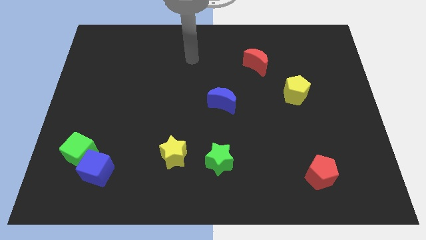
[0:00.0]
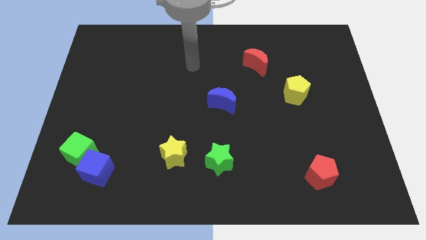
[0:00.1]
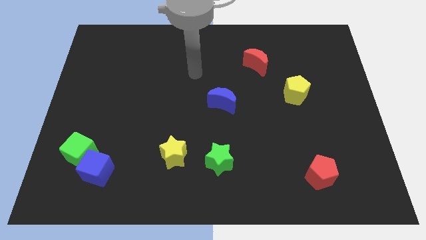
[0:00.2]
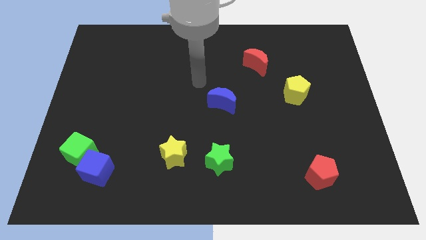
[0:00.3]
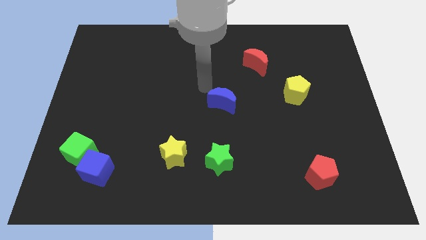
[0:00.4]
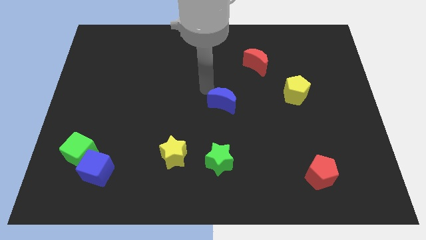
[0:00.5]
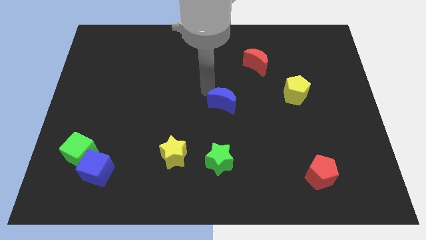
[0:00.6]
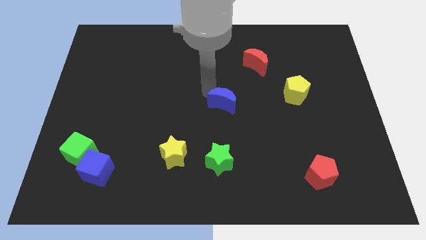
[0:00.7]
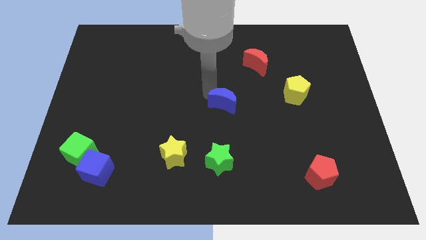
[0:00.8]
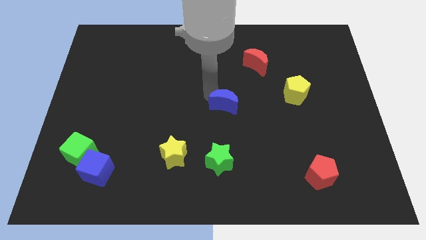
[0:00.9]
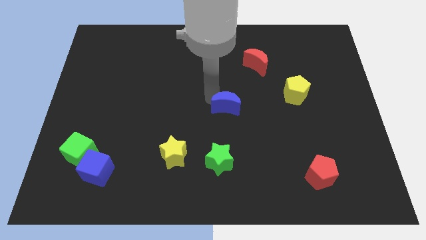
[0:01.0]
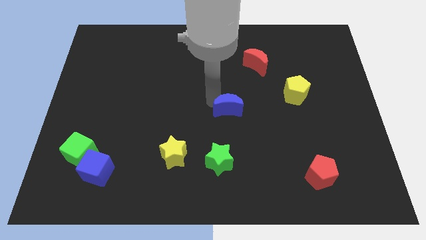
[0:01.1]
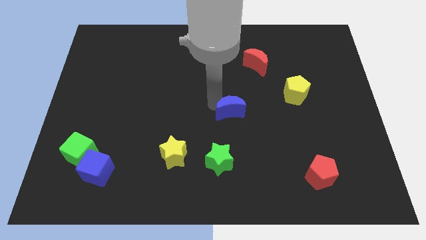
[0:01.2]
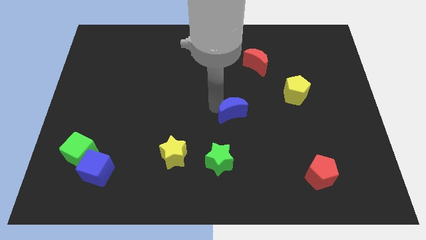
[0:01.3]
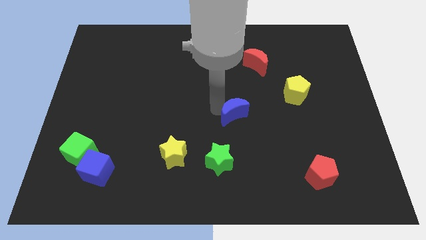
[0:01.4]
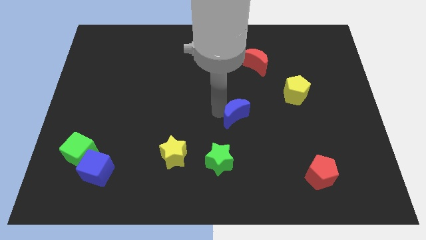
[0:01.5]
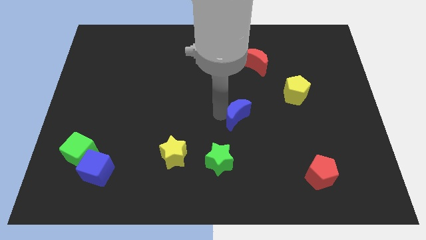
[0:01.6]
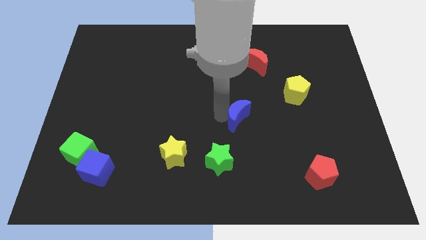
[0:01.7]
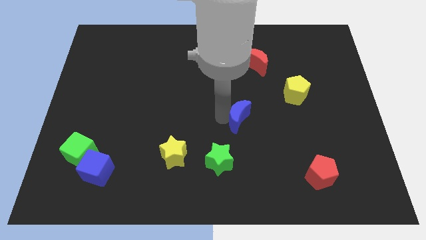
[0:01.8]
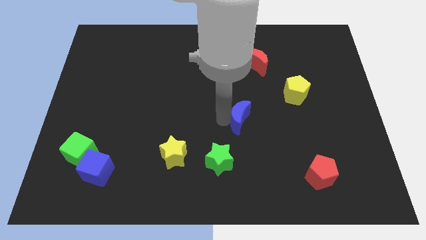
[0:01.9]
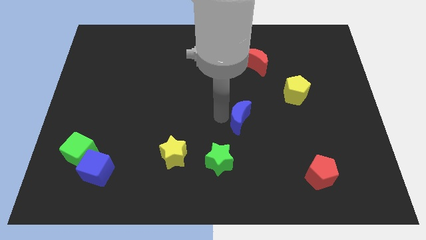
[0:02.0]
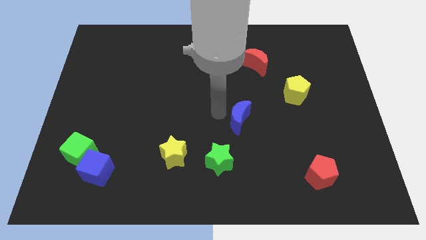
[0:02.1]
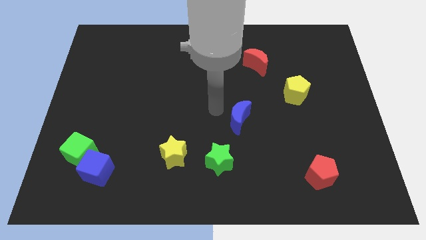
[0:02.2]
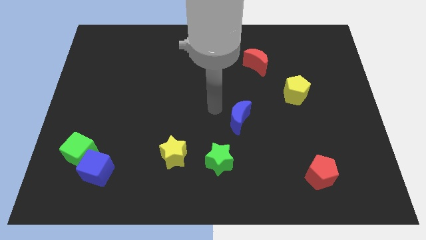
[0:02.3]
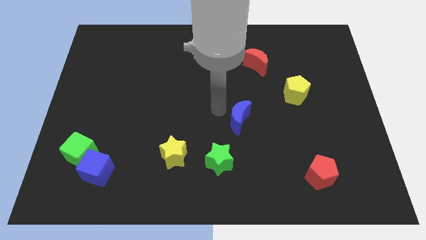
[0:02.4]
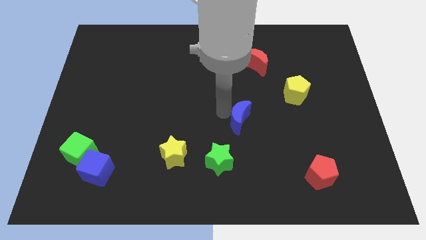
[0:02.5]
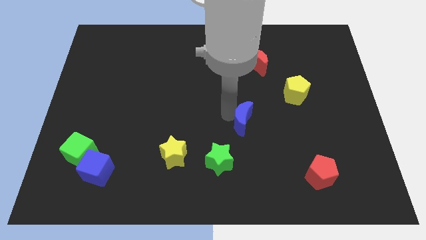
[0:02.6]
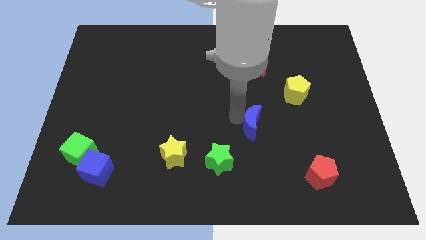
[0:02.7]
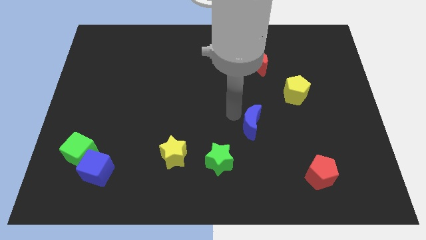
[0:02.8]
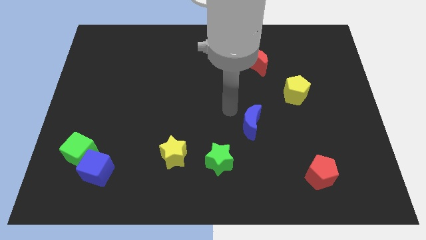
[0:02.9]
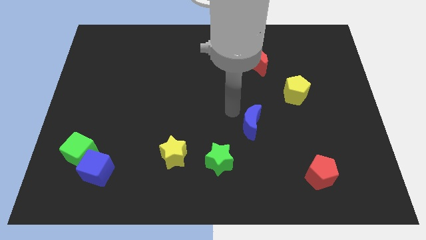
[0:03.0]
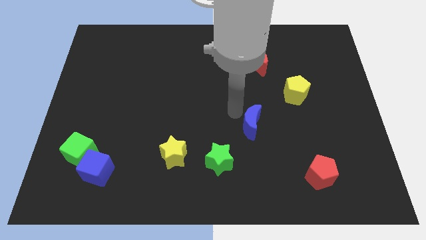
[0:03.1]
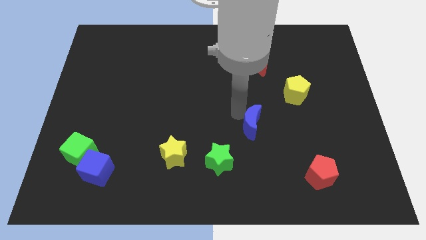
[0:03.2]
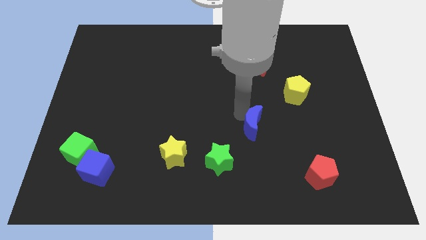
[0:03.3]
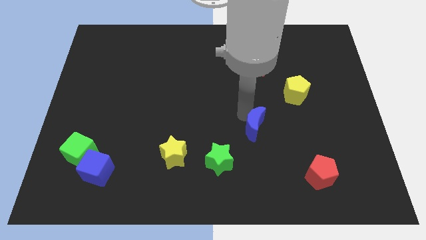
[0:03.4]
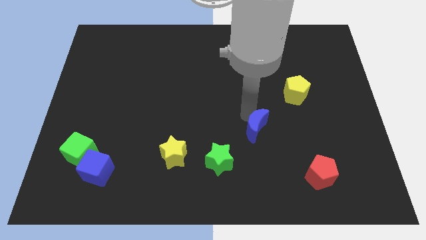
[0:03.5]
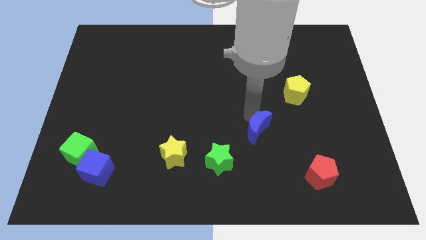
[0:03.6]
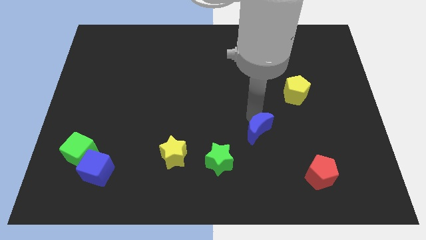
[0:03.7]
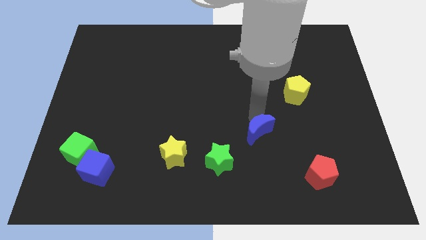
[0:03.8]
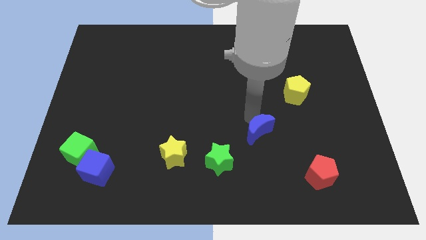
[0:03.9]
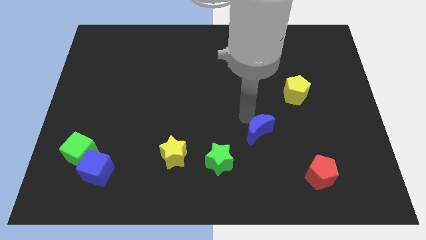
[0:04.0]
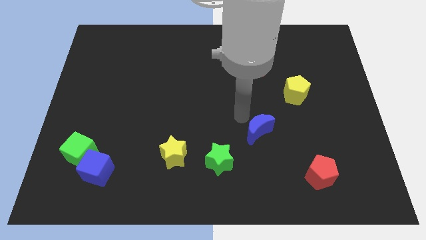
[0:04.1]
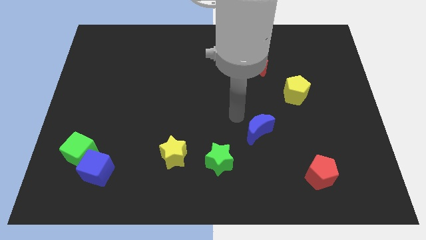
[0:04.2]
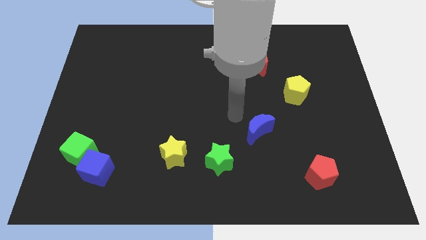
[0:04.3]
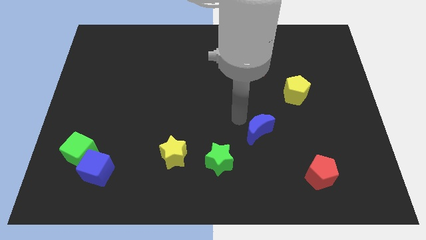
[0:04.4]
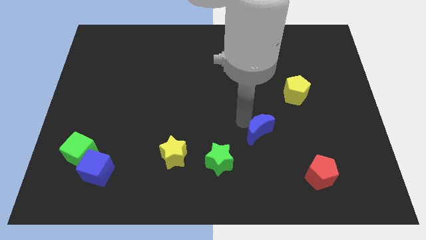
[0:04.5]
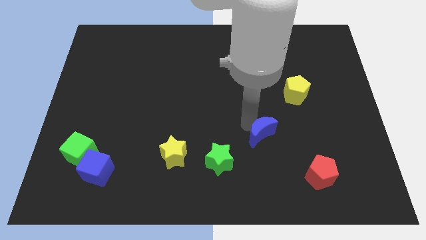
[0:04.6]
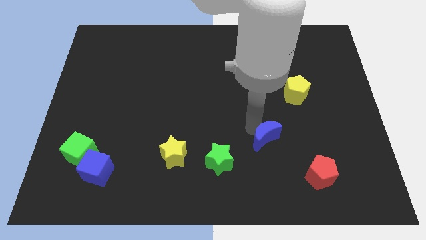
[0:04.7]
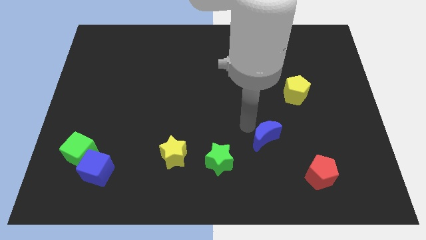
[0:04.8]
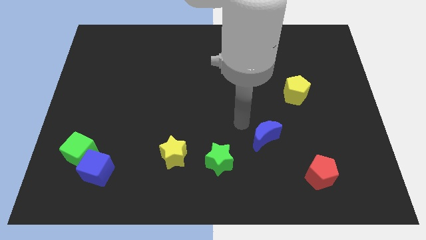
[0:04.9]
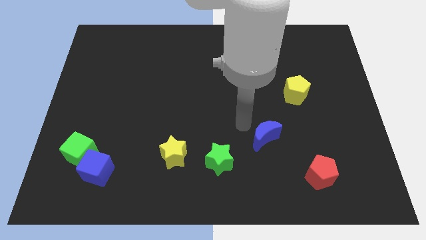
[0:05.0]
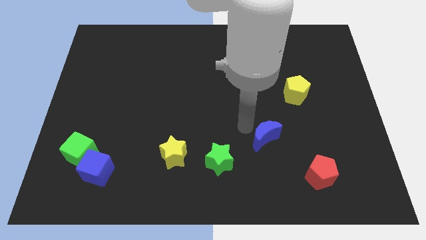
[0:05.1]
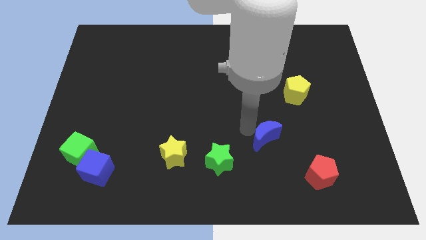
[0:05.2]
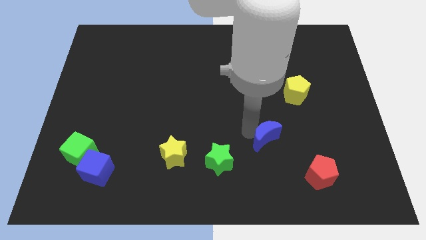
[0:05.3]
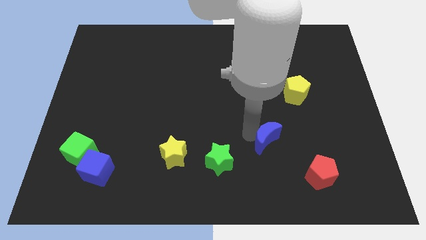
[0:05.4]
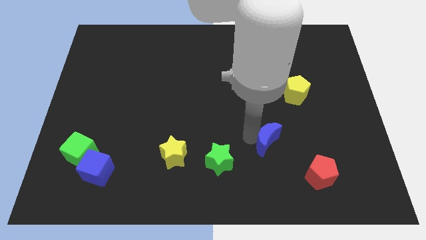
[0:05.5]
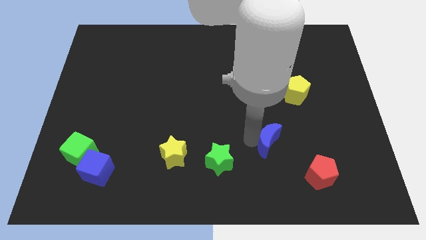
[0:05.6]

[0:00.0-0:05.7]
put the blue moon to the top left of the red pentagon

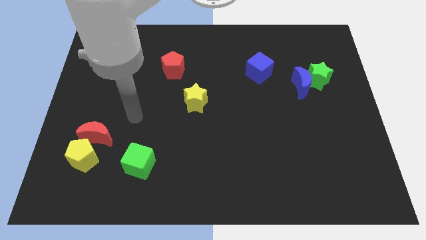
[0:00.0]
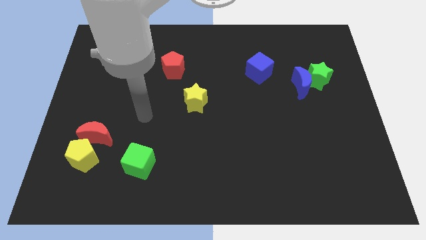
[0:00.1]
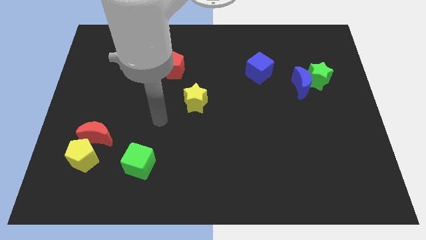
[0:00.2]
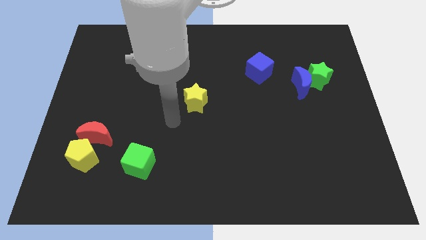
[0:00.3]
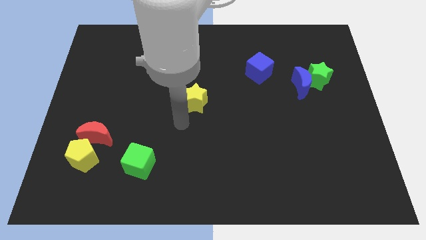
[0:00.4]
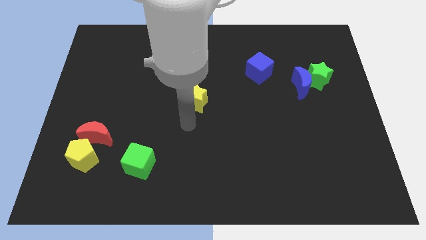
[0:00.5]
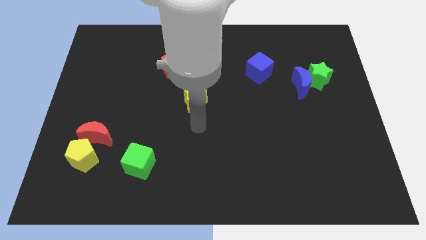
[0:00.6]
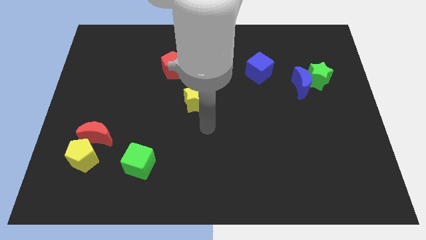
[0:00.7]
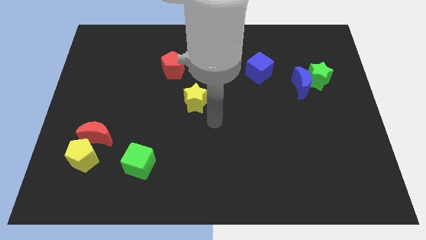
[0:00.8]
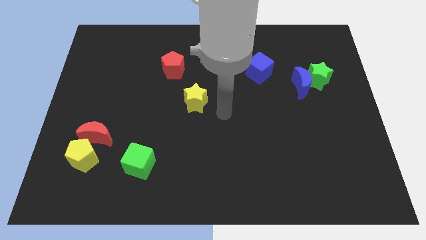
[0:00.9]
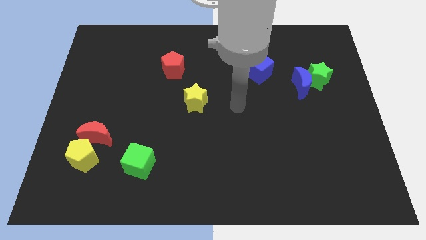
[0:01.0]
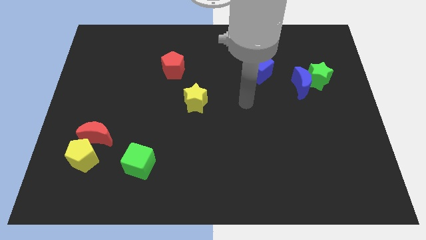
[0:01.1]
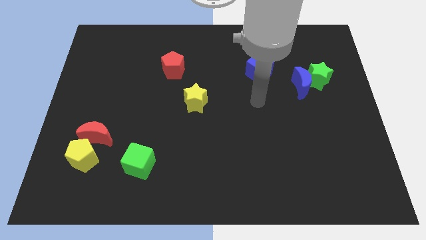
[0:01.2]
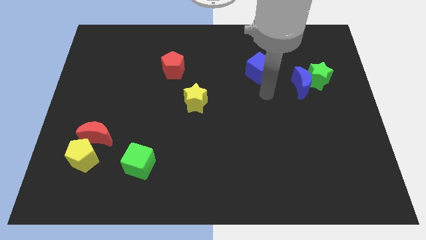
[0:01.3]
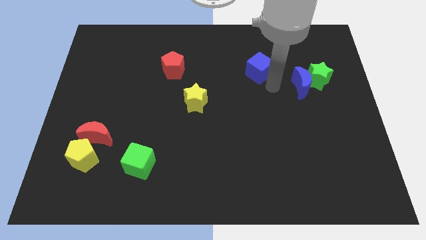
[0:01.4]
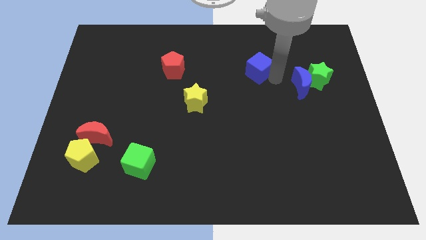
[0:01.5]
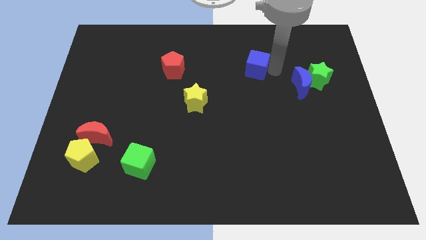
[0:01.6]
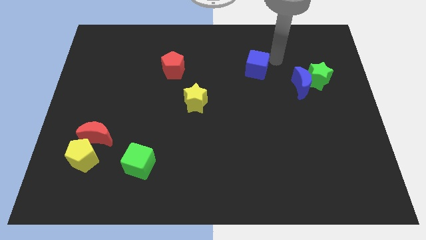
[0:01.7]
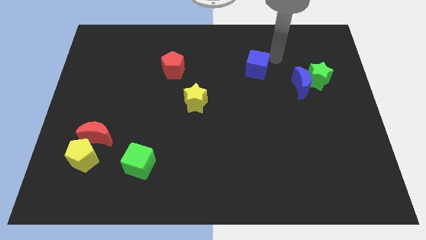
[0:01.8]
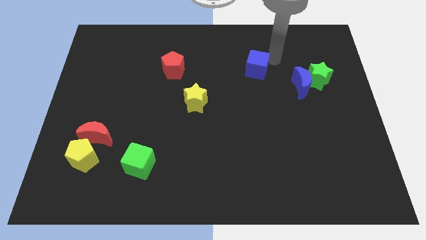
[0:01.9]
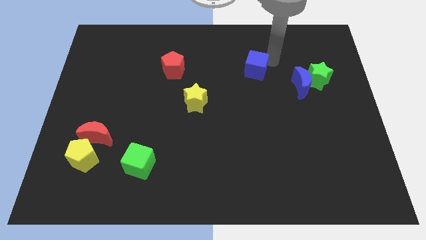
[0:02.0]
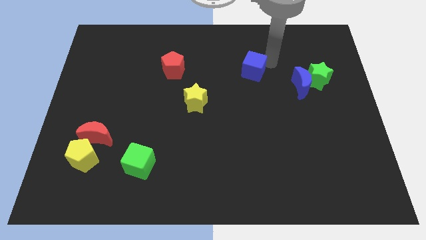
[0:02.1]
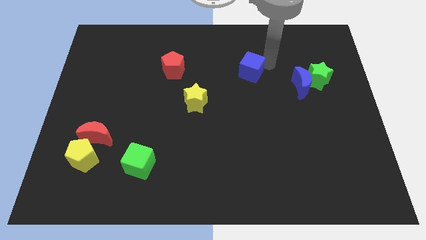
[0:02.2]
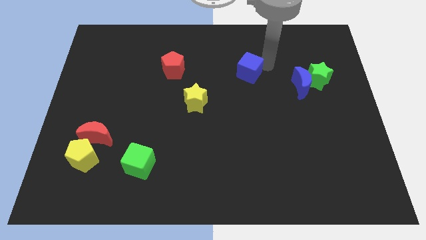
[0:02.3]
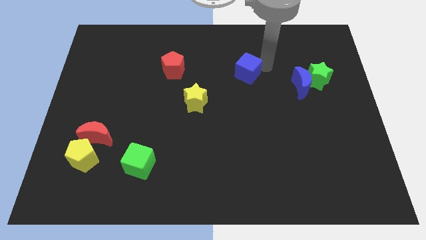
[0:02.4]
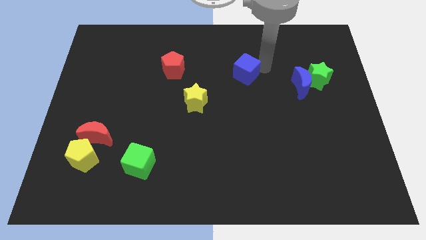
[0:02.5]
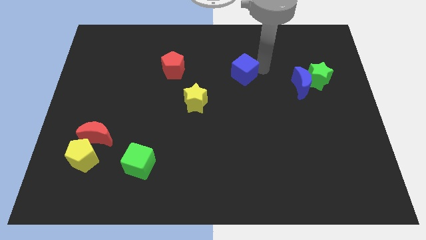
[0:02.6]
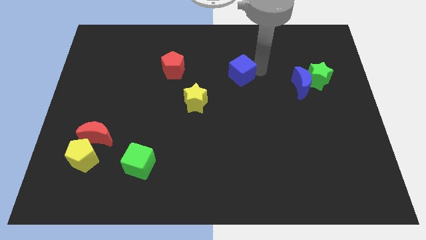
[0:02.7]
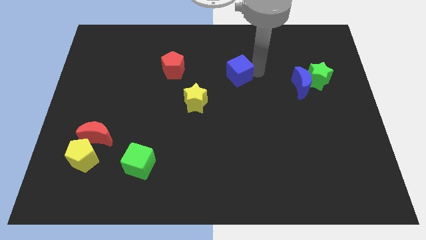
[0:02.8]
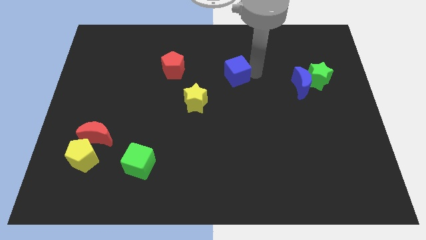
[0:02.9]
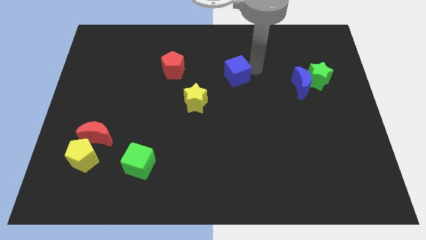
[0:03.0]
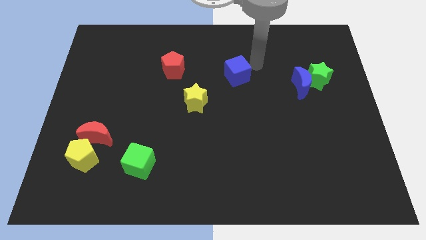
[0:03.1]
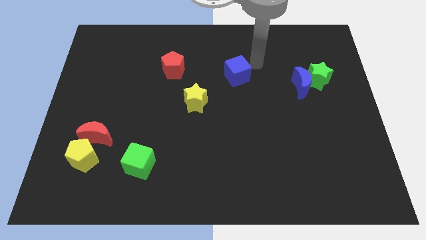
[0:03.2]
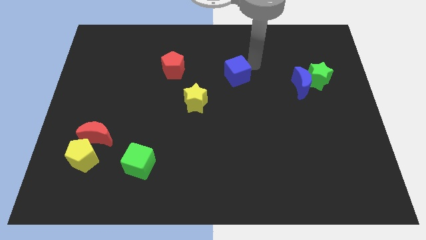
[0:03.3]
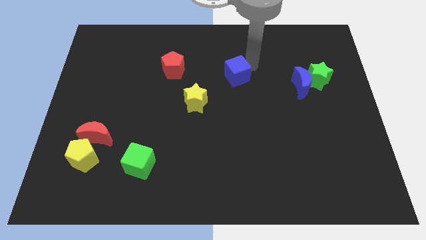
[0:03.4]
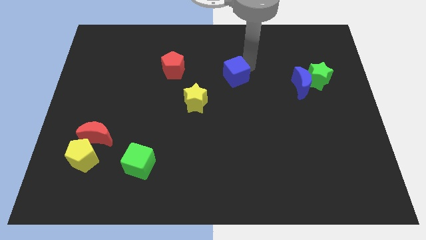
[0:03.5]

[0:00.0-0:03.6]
push the blue cube to the top right of the yellow star
